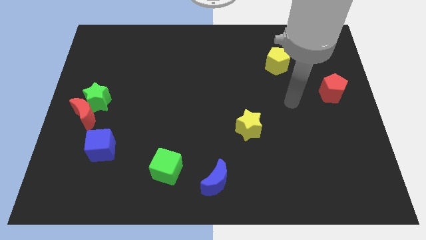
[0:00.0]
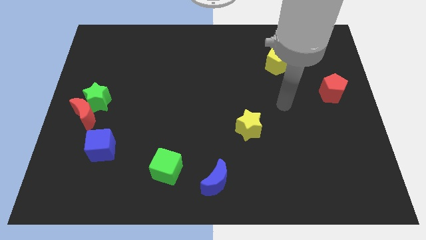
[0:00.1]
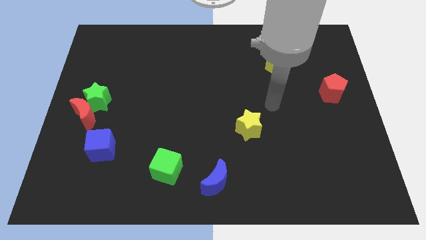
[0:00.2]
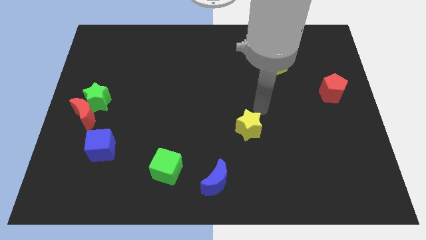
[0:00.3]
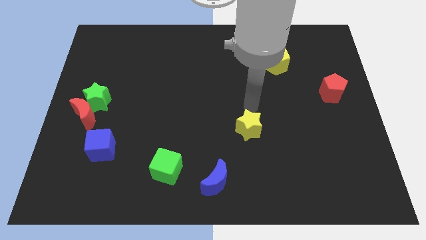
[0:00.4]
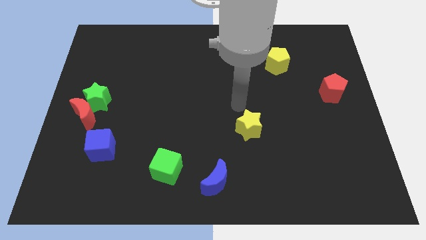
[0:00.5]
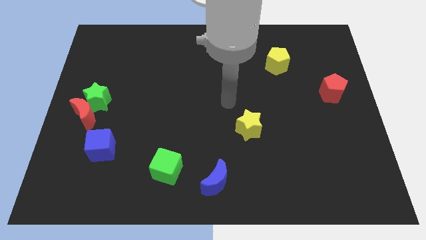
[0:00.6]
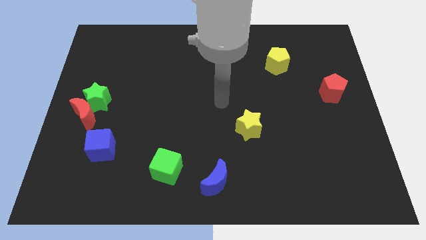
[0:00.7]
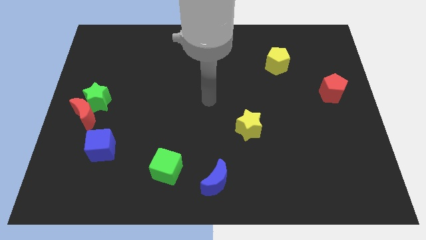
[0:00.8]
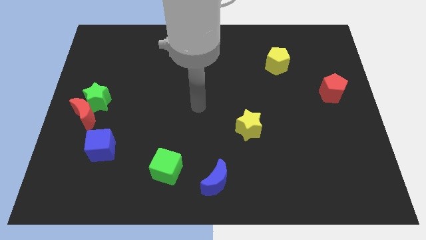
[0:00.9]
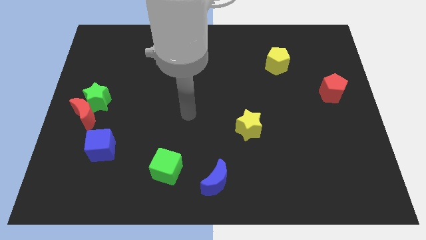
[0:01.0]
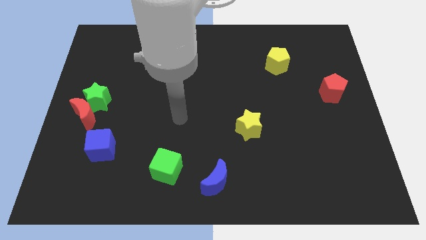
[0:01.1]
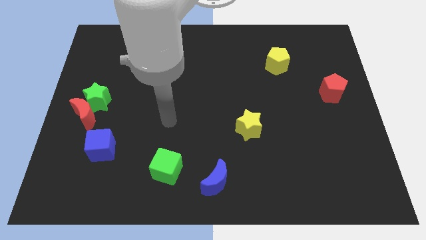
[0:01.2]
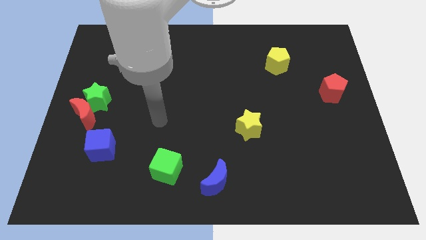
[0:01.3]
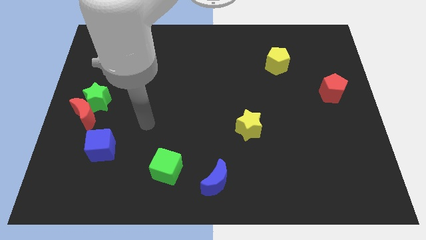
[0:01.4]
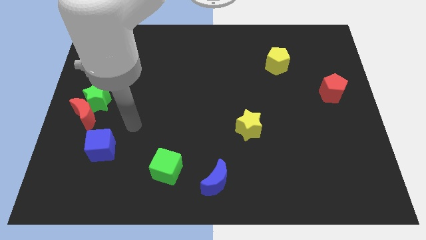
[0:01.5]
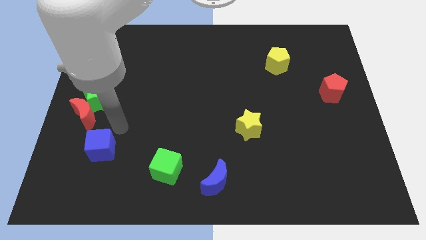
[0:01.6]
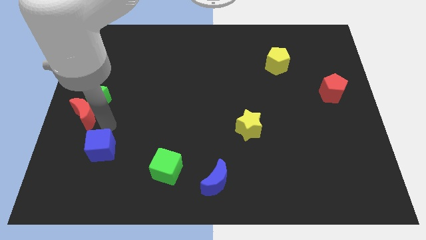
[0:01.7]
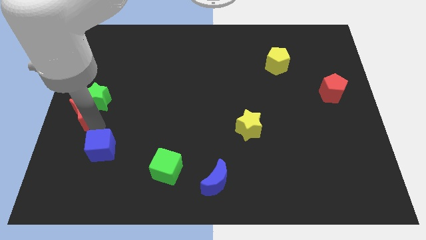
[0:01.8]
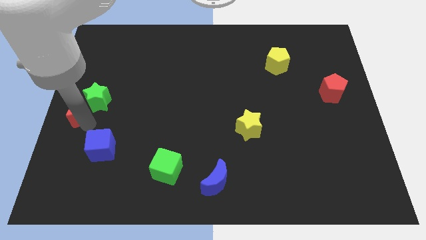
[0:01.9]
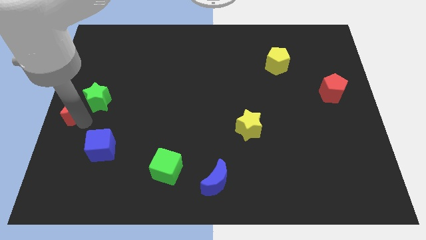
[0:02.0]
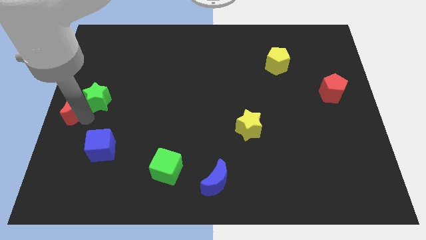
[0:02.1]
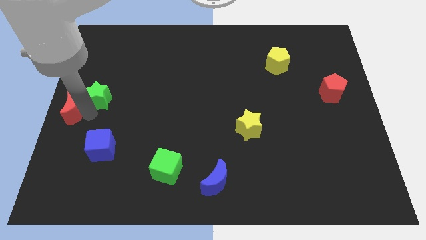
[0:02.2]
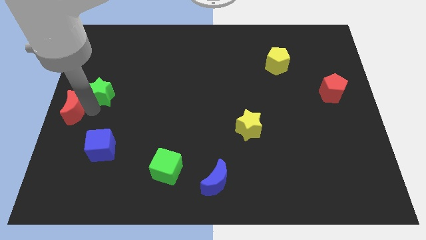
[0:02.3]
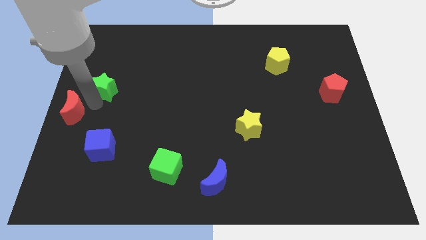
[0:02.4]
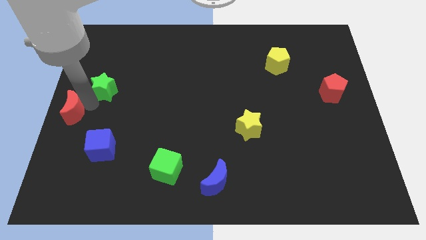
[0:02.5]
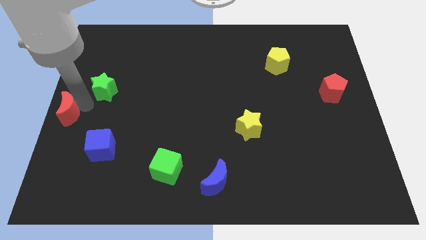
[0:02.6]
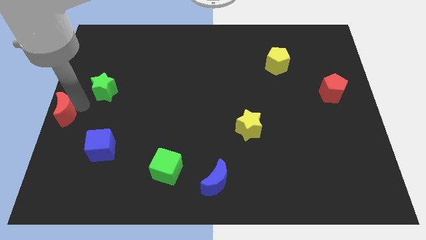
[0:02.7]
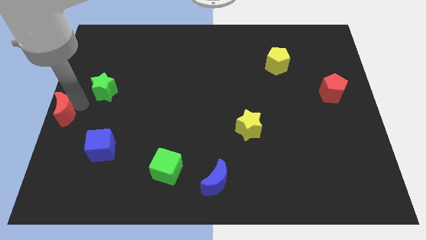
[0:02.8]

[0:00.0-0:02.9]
separate the green star from the red moon

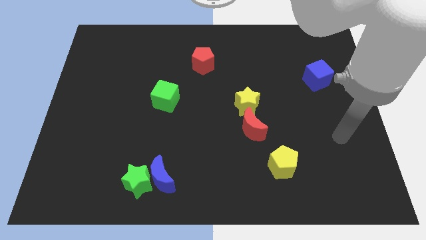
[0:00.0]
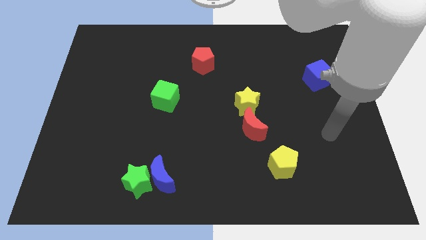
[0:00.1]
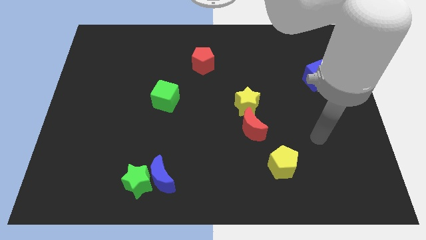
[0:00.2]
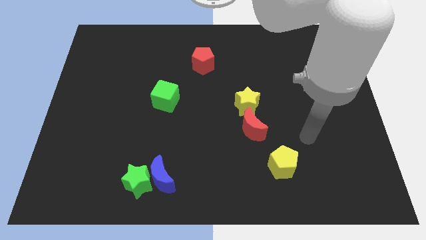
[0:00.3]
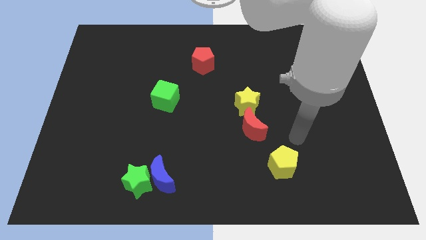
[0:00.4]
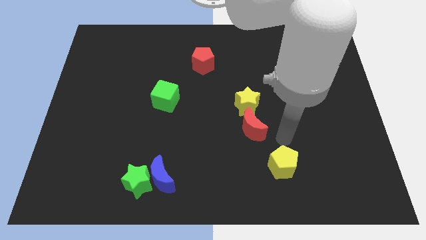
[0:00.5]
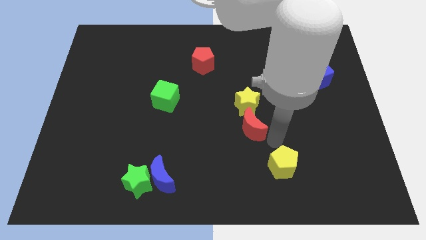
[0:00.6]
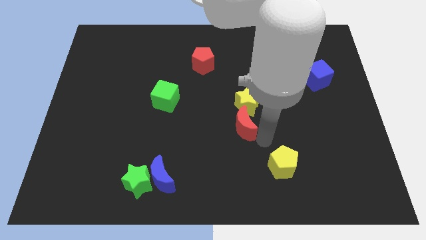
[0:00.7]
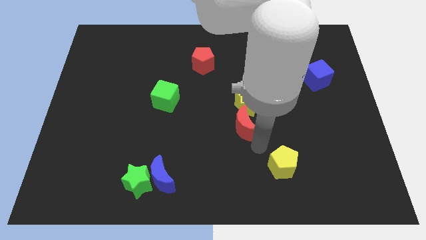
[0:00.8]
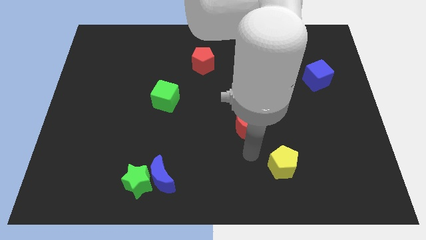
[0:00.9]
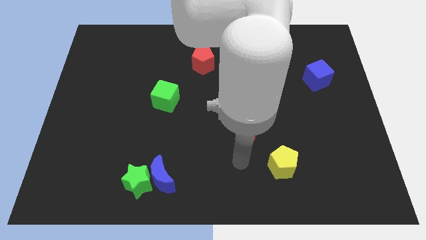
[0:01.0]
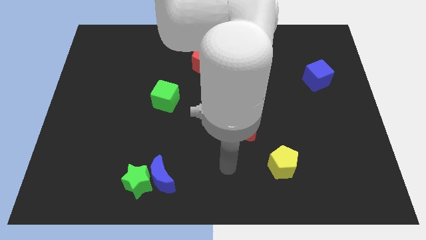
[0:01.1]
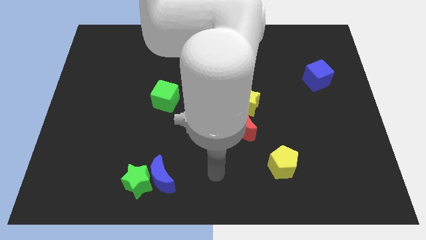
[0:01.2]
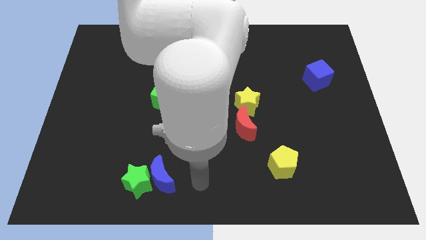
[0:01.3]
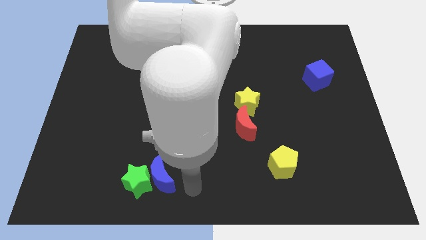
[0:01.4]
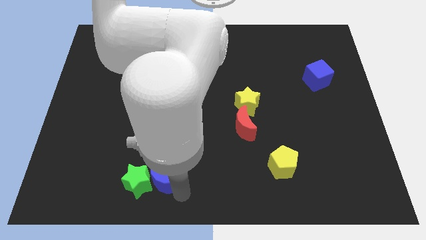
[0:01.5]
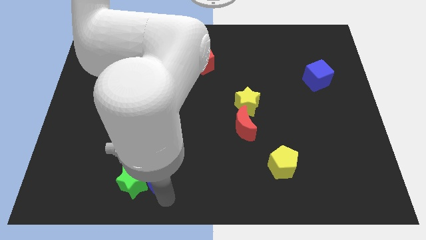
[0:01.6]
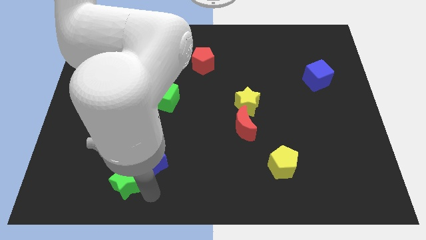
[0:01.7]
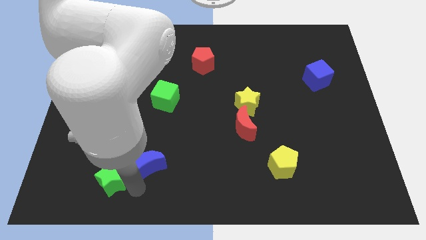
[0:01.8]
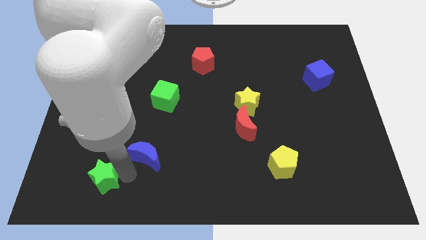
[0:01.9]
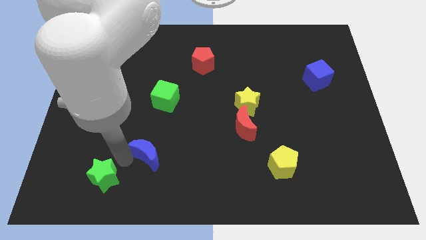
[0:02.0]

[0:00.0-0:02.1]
move the blue moon away from the green star

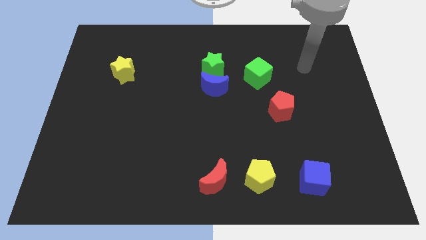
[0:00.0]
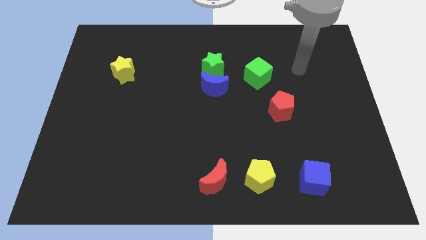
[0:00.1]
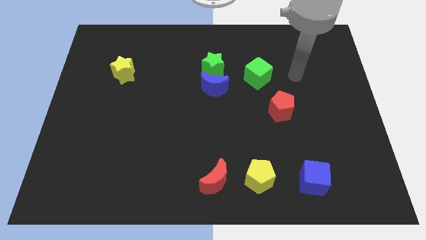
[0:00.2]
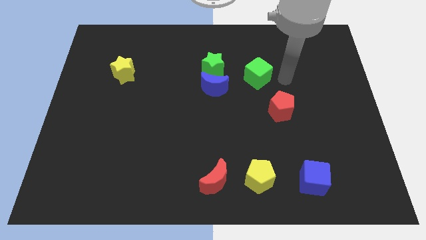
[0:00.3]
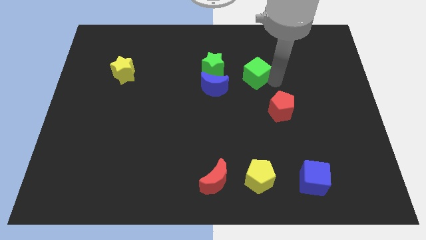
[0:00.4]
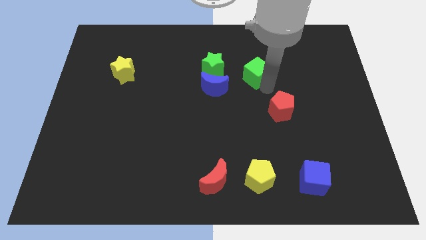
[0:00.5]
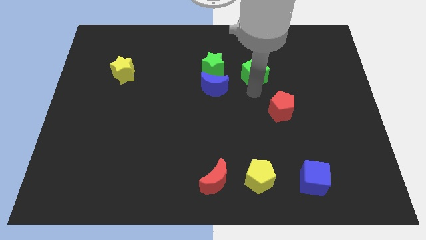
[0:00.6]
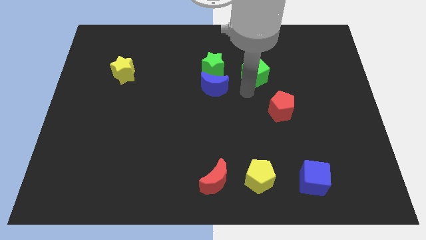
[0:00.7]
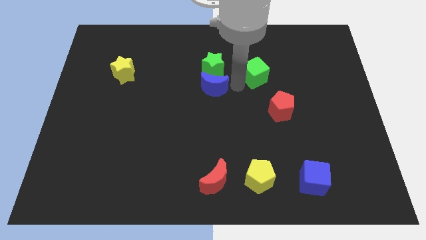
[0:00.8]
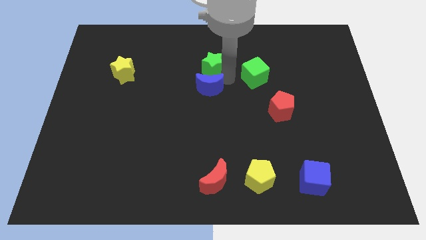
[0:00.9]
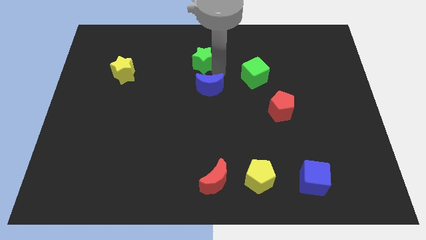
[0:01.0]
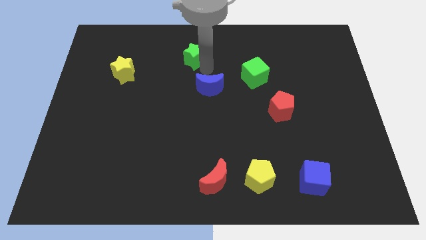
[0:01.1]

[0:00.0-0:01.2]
pull the blue moon apart from the green star

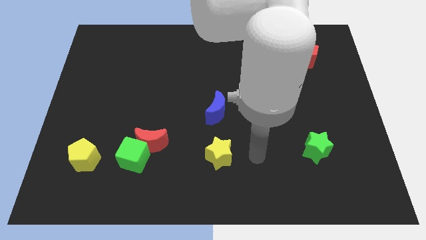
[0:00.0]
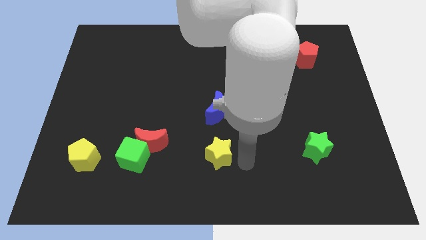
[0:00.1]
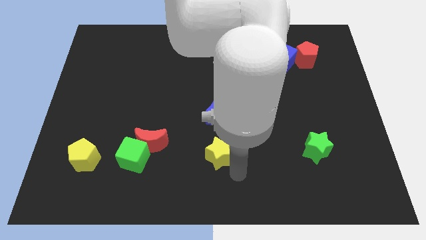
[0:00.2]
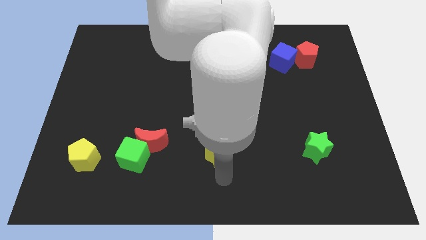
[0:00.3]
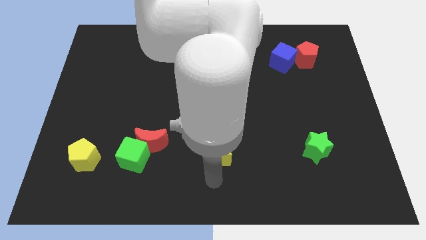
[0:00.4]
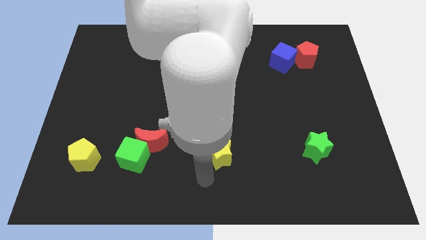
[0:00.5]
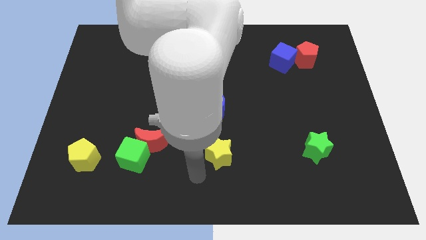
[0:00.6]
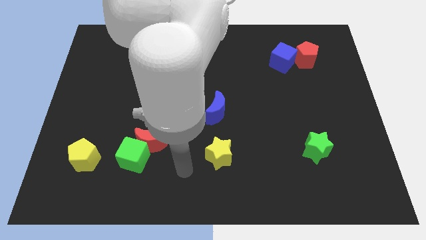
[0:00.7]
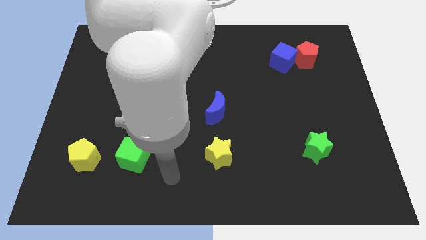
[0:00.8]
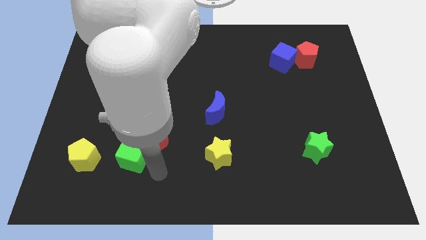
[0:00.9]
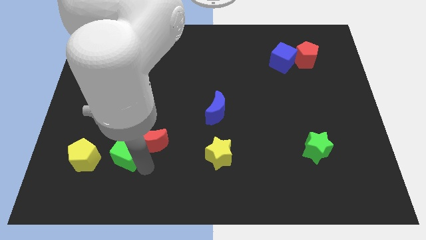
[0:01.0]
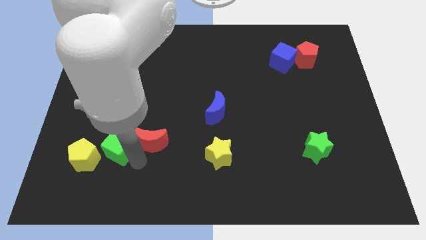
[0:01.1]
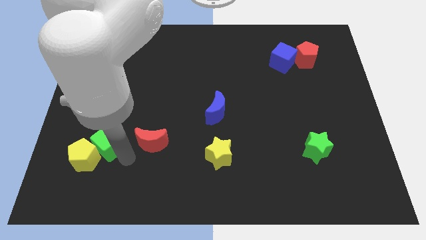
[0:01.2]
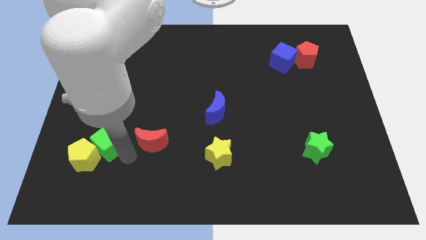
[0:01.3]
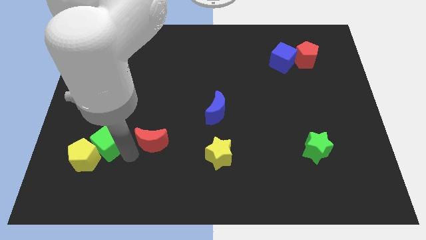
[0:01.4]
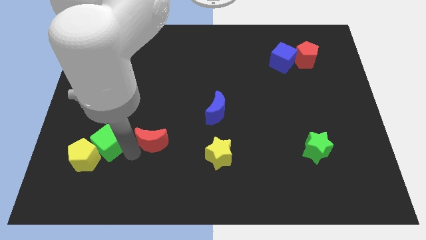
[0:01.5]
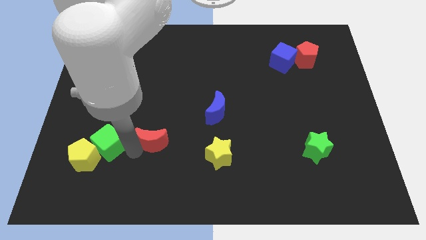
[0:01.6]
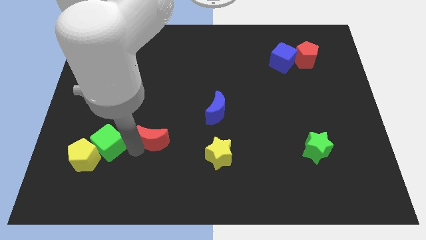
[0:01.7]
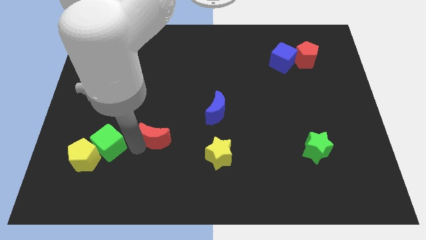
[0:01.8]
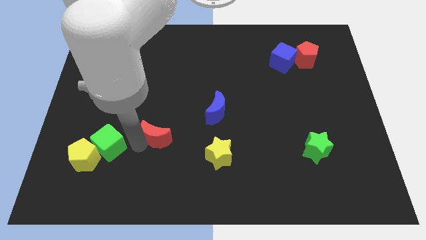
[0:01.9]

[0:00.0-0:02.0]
pull the red moon apart from the green cube

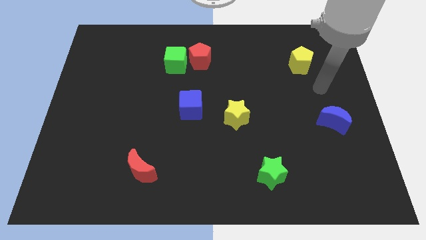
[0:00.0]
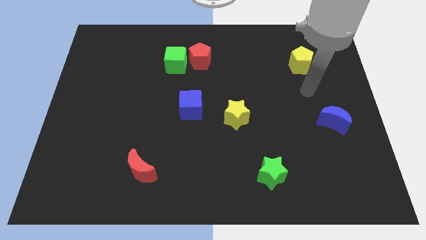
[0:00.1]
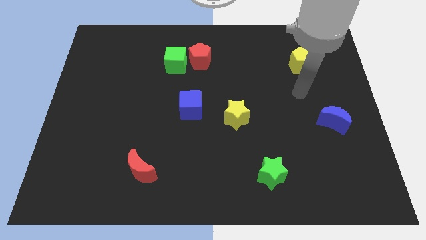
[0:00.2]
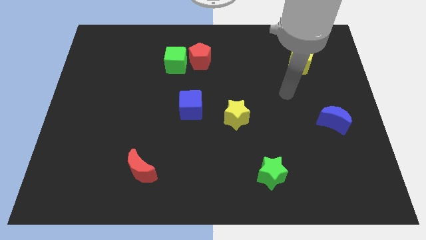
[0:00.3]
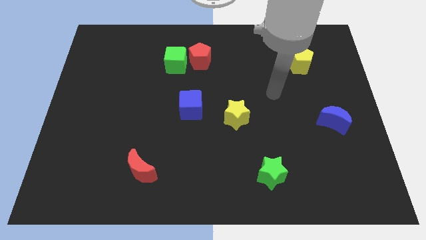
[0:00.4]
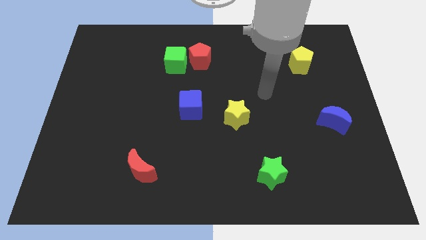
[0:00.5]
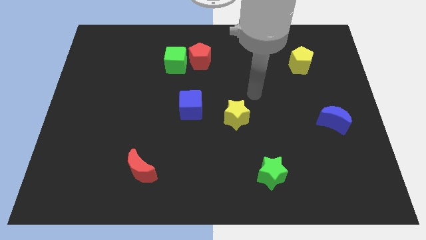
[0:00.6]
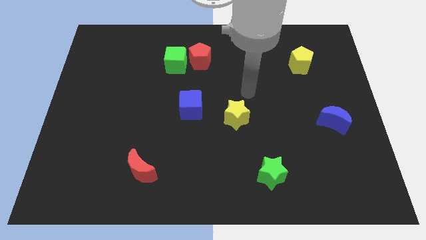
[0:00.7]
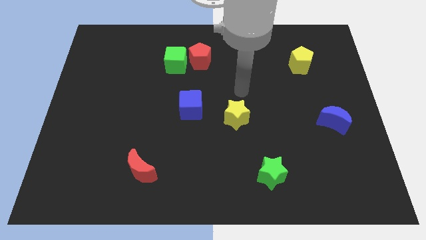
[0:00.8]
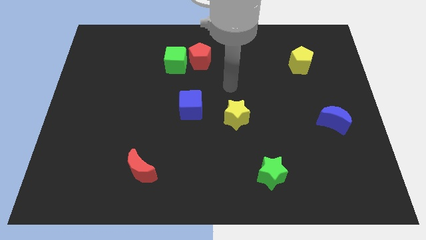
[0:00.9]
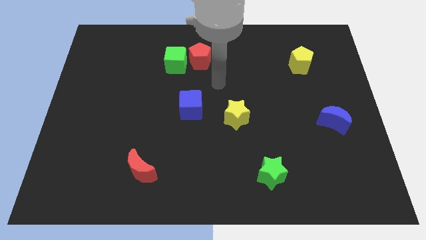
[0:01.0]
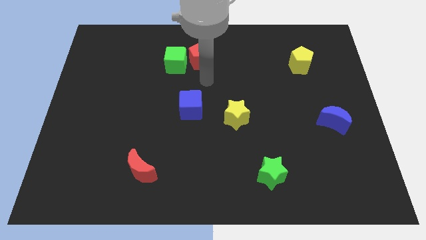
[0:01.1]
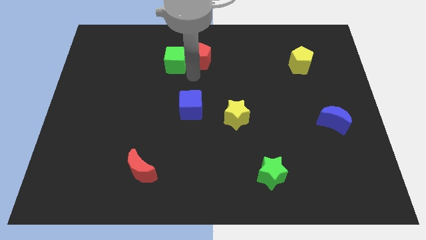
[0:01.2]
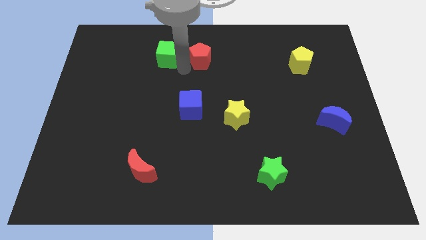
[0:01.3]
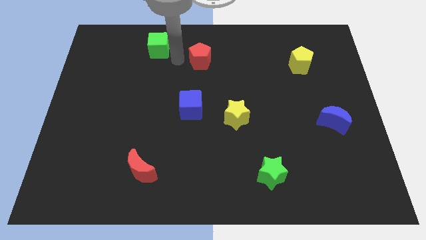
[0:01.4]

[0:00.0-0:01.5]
pull the red pentagon apart from the green cube
